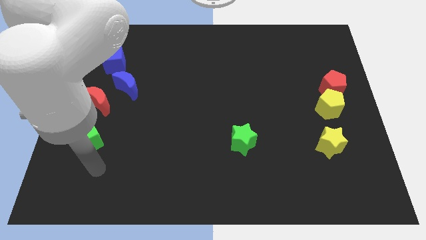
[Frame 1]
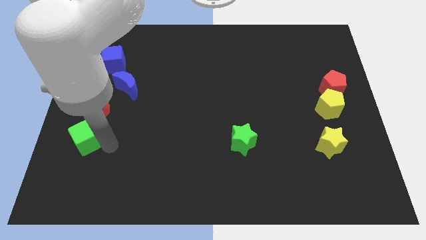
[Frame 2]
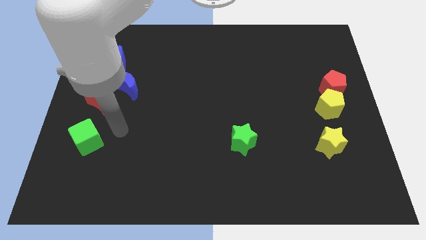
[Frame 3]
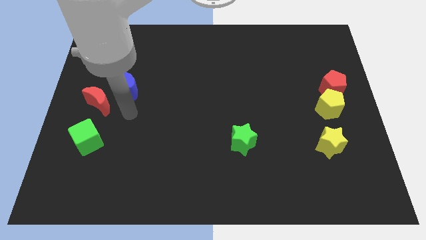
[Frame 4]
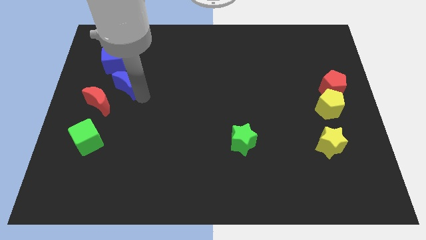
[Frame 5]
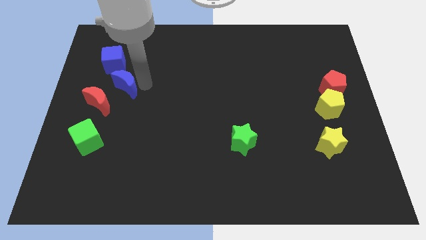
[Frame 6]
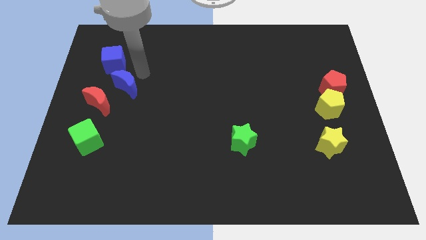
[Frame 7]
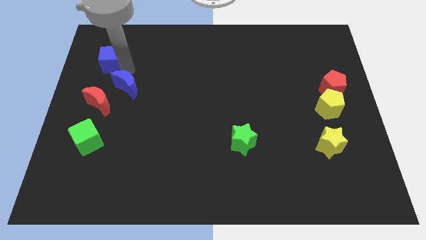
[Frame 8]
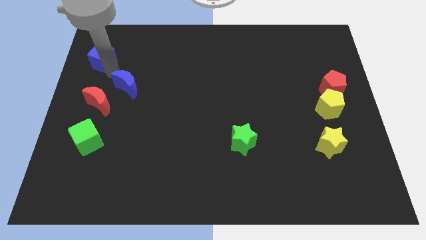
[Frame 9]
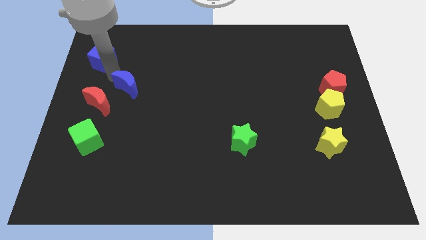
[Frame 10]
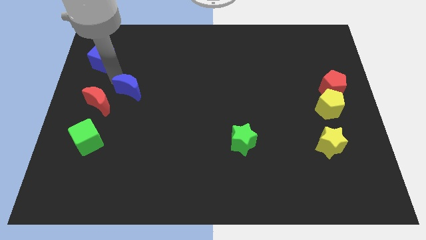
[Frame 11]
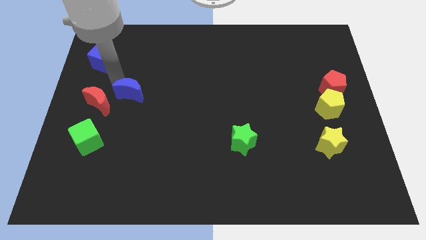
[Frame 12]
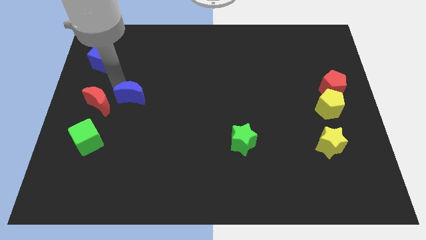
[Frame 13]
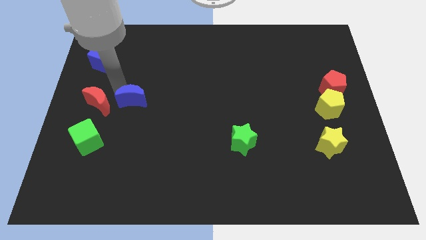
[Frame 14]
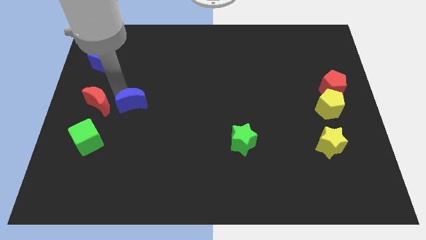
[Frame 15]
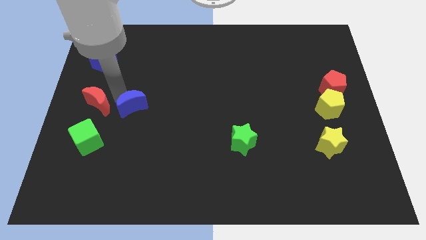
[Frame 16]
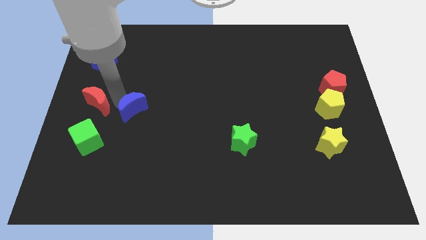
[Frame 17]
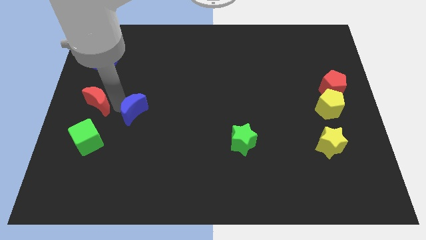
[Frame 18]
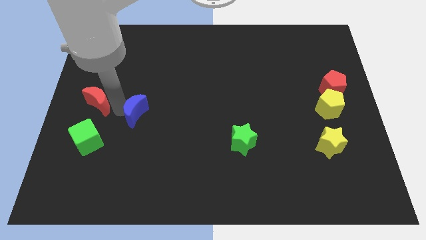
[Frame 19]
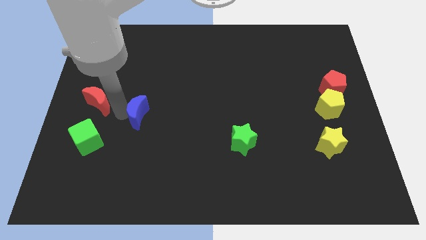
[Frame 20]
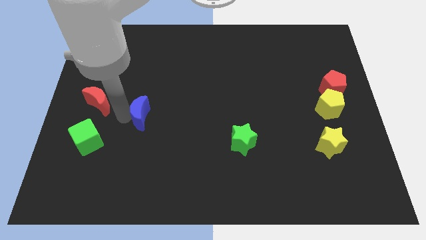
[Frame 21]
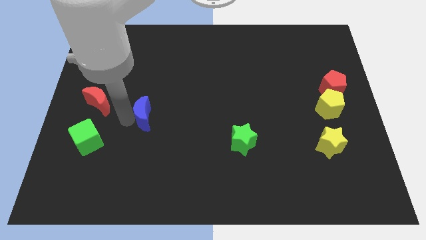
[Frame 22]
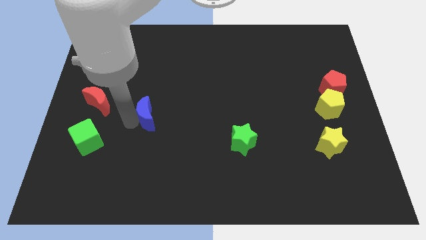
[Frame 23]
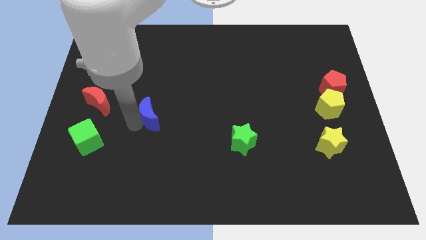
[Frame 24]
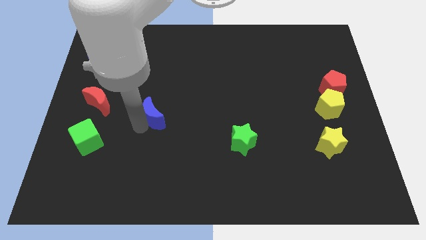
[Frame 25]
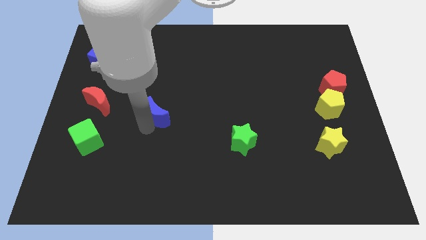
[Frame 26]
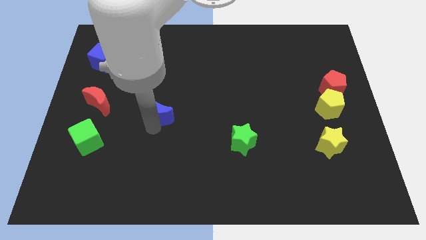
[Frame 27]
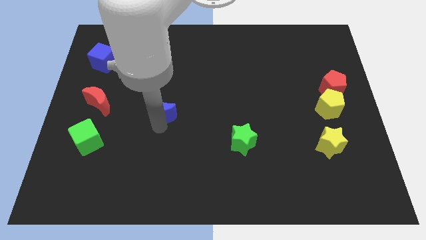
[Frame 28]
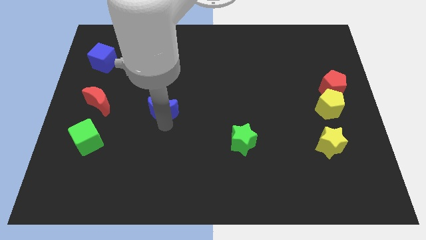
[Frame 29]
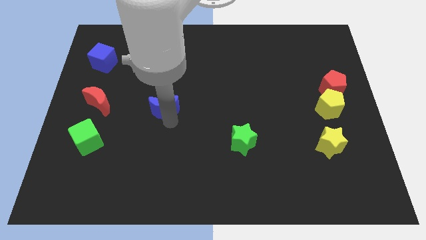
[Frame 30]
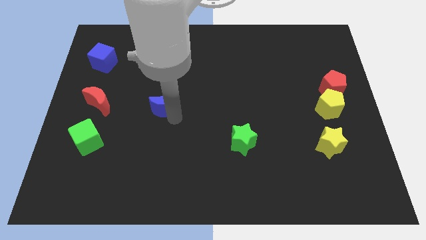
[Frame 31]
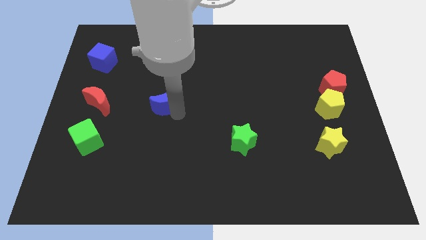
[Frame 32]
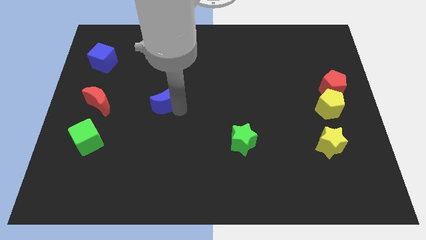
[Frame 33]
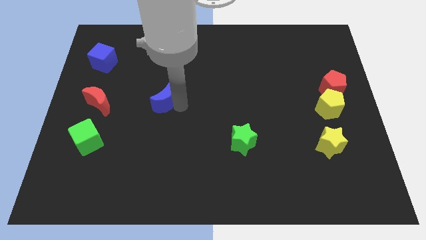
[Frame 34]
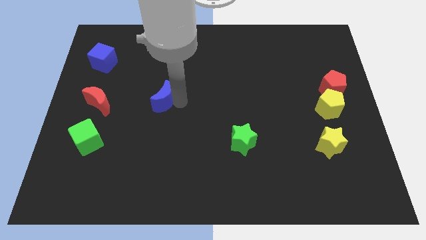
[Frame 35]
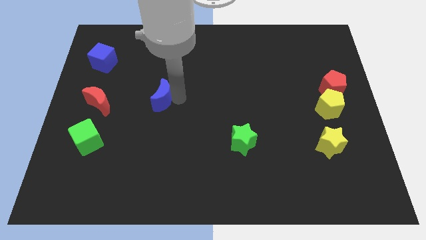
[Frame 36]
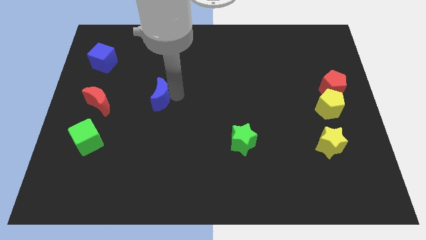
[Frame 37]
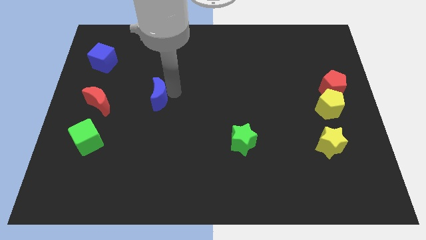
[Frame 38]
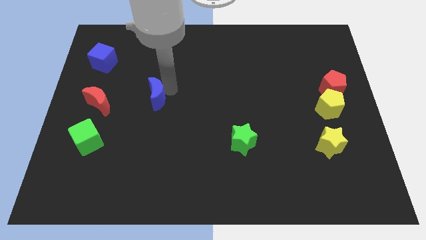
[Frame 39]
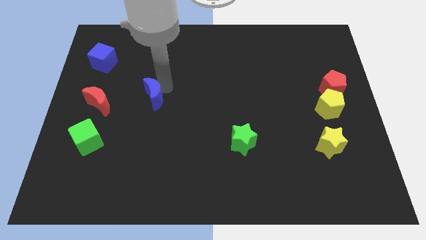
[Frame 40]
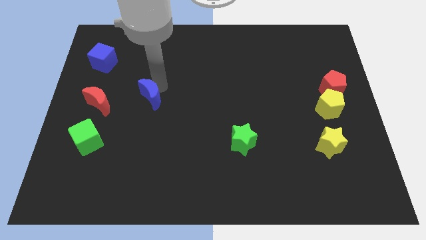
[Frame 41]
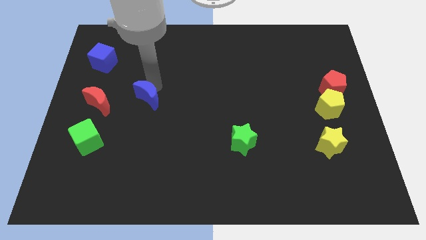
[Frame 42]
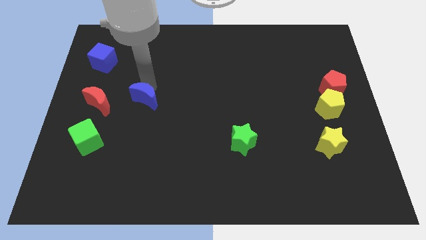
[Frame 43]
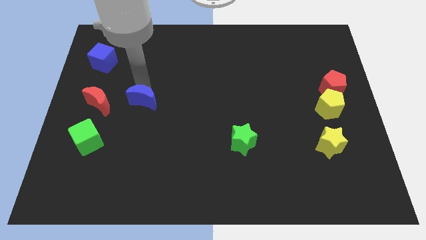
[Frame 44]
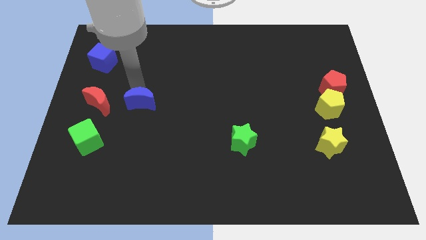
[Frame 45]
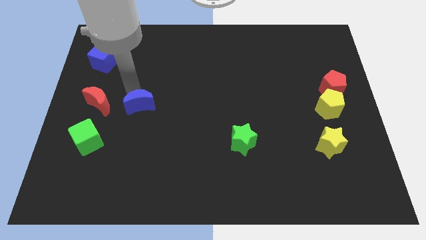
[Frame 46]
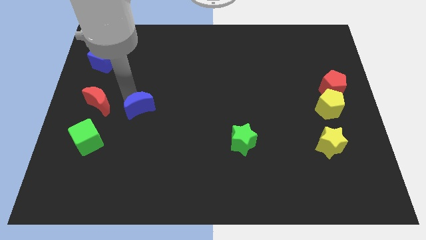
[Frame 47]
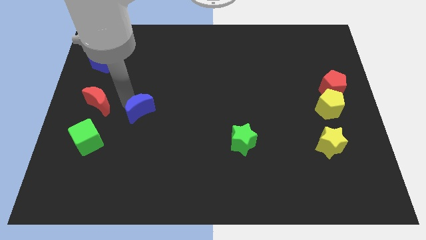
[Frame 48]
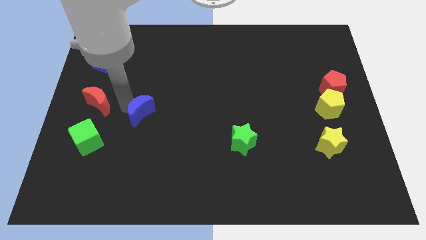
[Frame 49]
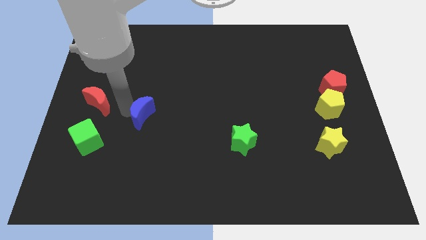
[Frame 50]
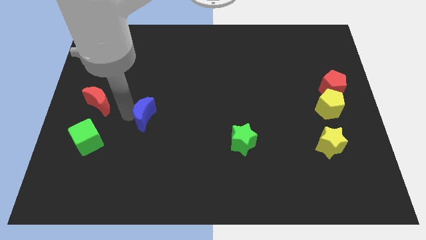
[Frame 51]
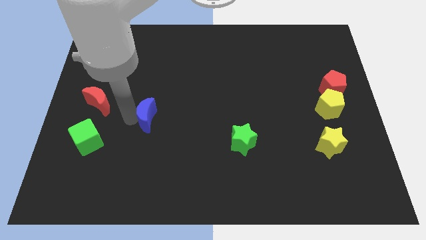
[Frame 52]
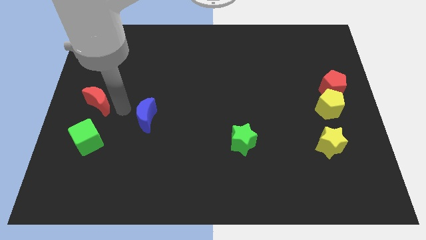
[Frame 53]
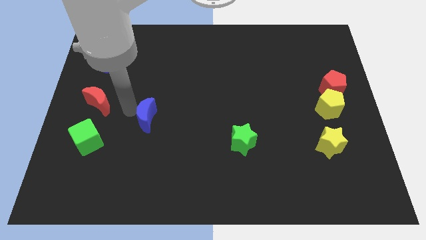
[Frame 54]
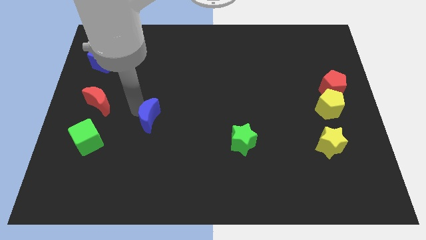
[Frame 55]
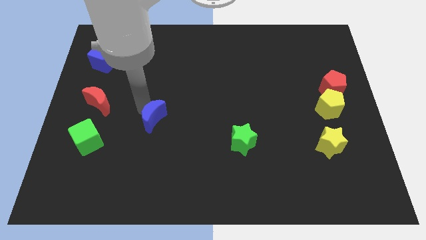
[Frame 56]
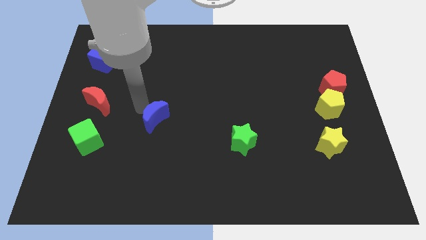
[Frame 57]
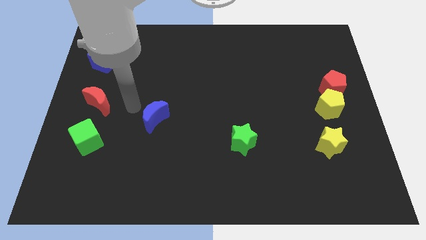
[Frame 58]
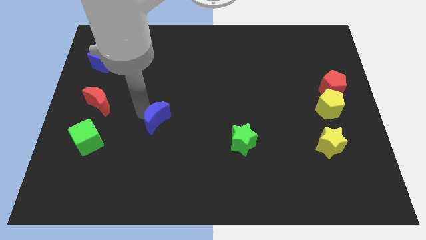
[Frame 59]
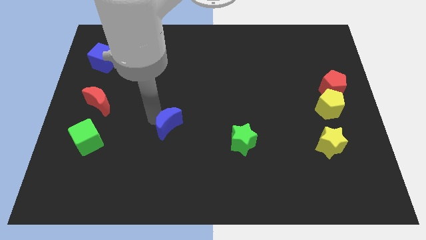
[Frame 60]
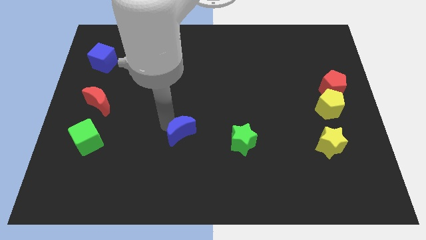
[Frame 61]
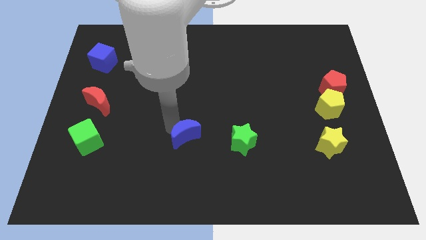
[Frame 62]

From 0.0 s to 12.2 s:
push the blue moon down and to the right diagonally

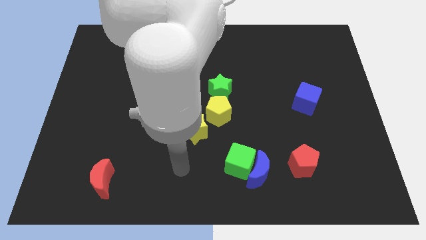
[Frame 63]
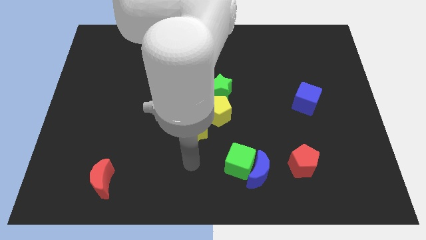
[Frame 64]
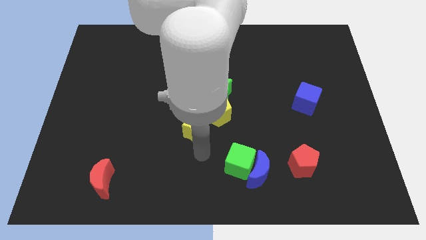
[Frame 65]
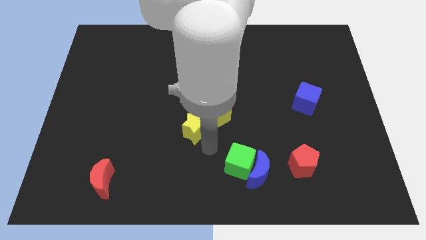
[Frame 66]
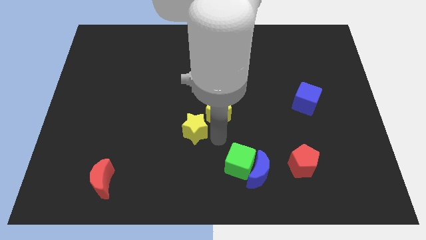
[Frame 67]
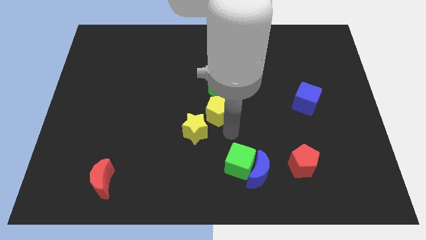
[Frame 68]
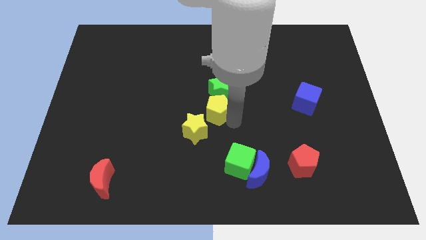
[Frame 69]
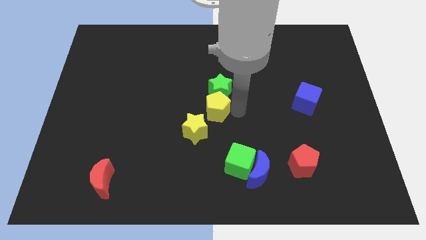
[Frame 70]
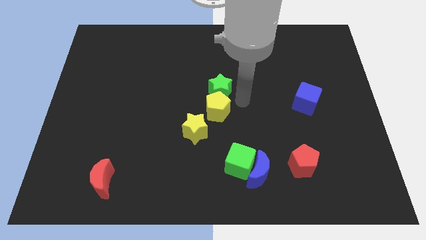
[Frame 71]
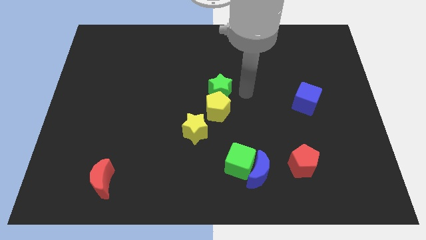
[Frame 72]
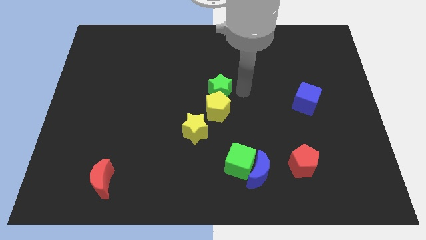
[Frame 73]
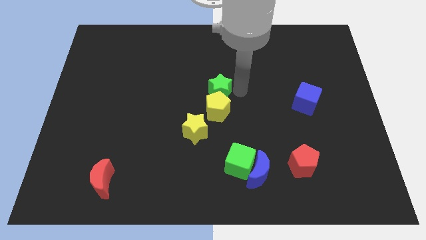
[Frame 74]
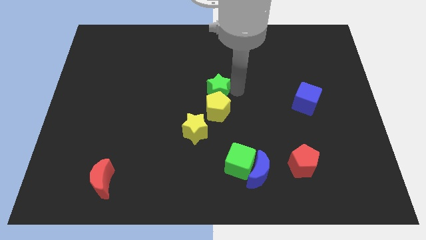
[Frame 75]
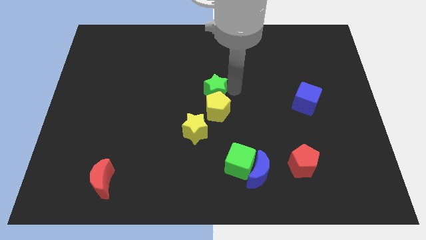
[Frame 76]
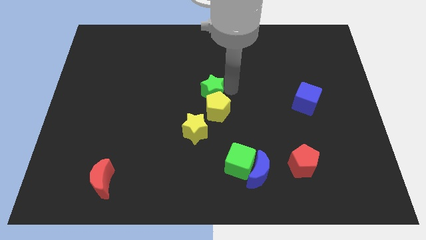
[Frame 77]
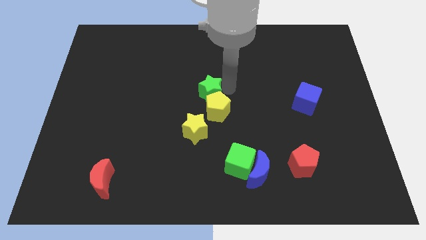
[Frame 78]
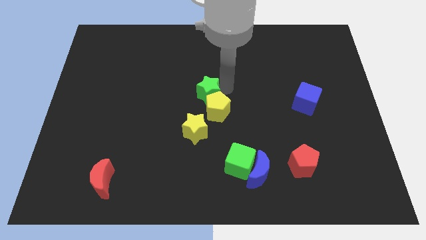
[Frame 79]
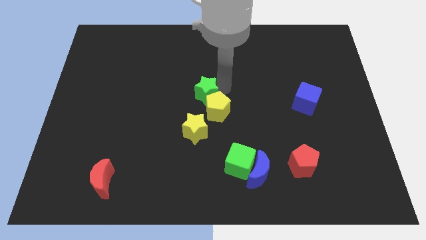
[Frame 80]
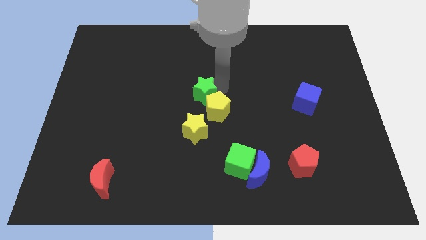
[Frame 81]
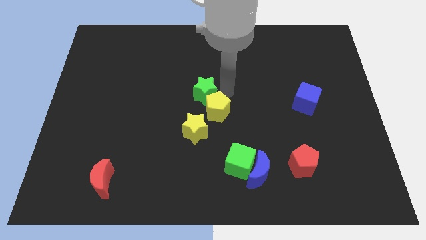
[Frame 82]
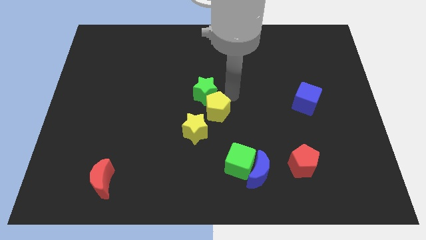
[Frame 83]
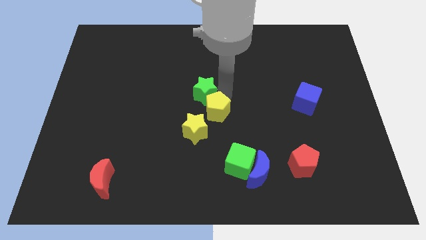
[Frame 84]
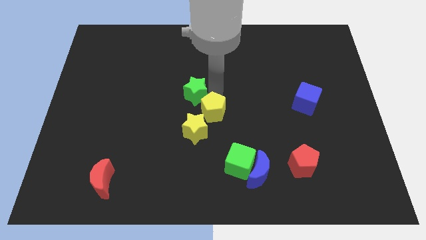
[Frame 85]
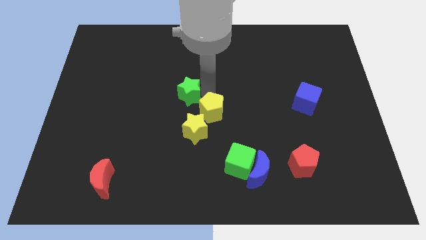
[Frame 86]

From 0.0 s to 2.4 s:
move the green star a bit to the left
